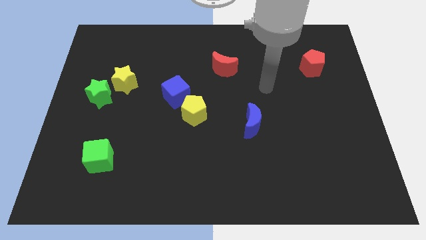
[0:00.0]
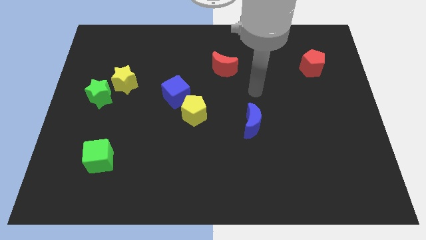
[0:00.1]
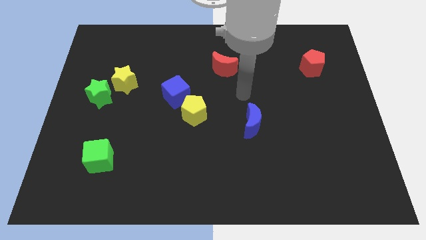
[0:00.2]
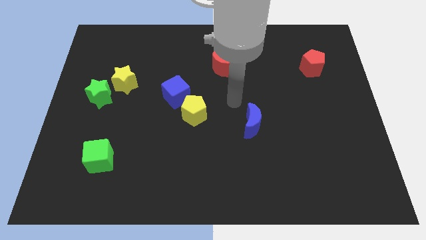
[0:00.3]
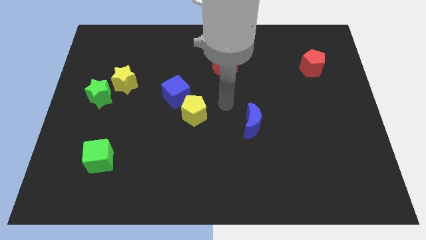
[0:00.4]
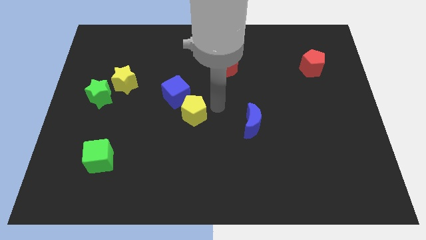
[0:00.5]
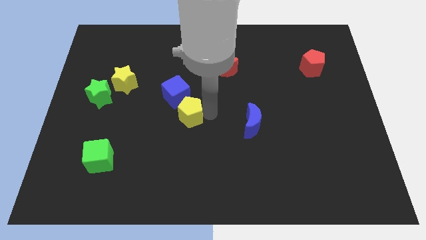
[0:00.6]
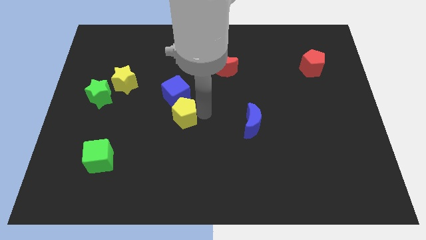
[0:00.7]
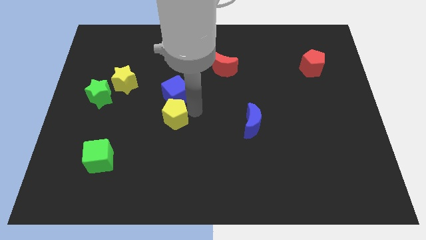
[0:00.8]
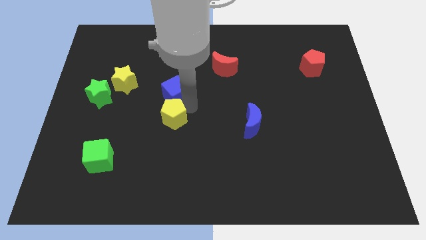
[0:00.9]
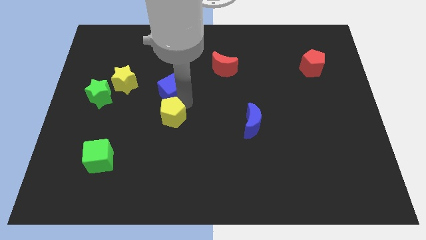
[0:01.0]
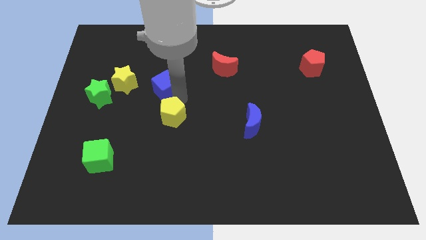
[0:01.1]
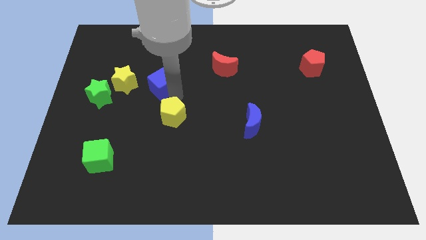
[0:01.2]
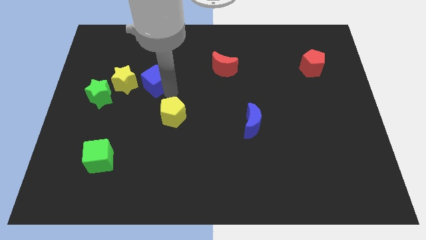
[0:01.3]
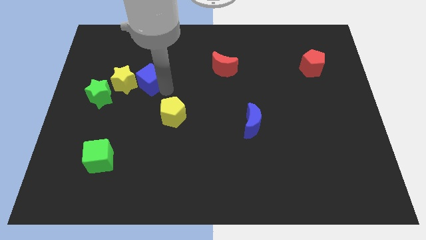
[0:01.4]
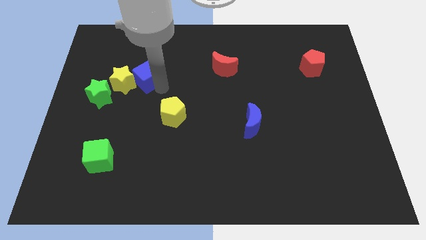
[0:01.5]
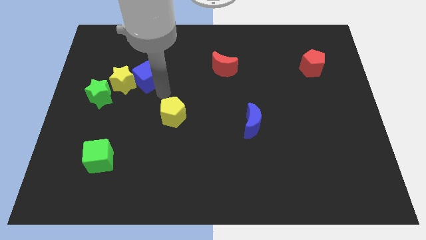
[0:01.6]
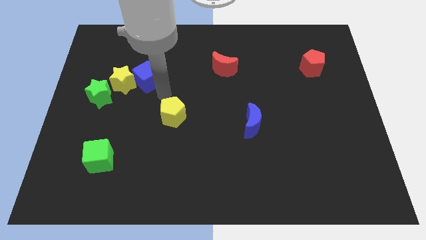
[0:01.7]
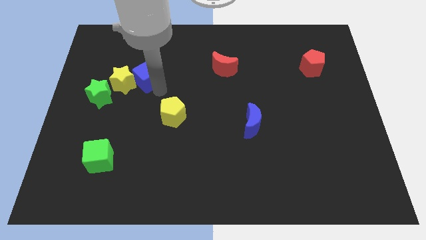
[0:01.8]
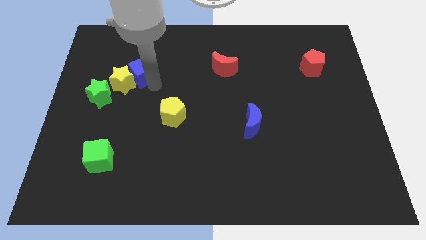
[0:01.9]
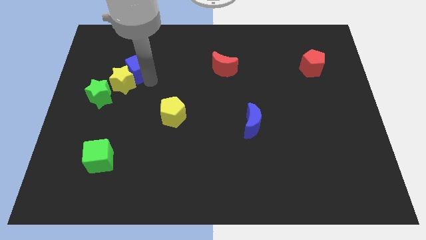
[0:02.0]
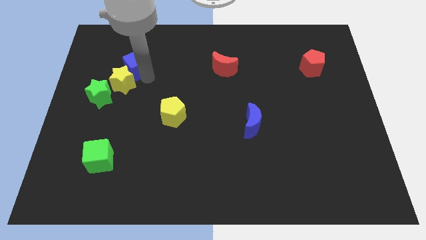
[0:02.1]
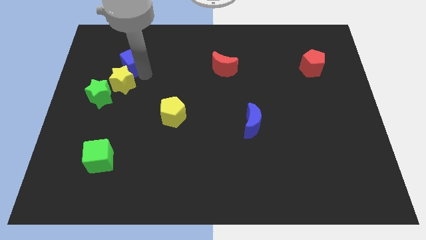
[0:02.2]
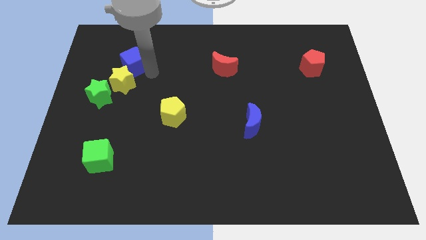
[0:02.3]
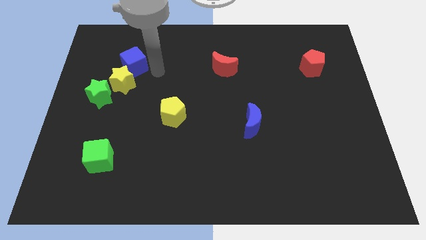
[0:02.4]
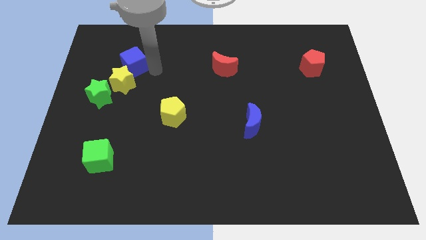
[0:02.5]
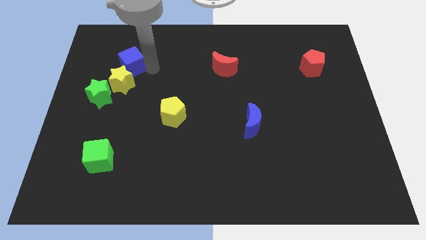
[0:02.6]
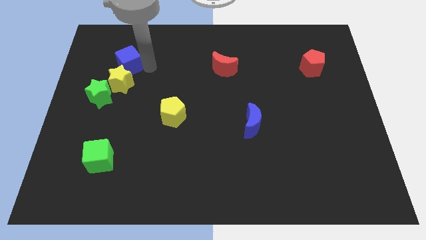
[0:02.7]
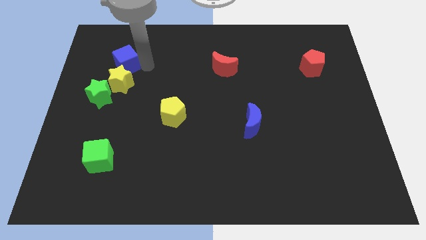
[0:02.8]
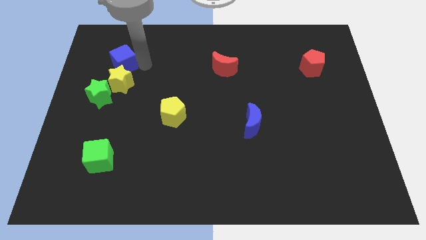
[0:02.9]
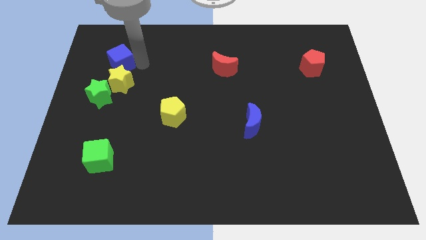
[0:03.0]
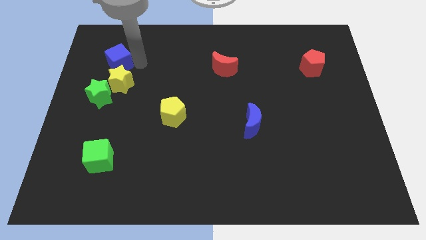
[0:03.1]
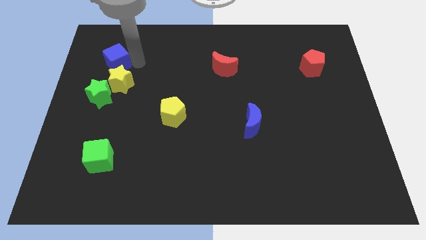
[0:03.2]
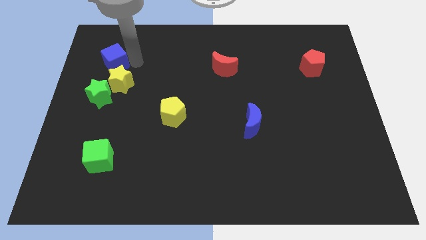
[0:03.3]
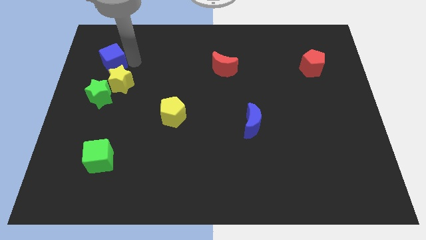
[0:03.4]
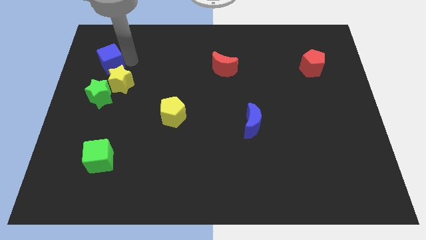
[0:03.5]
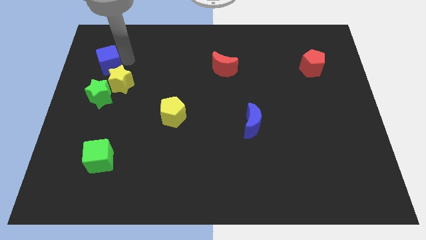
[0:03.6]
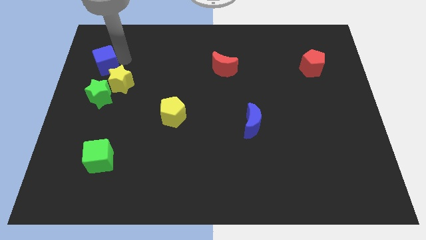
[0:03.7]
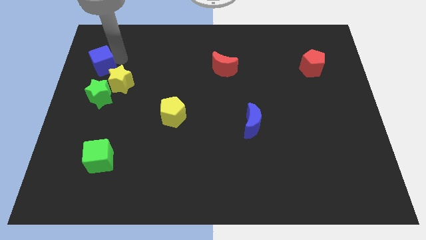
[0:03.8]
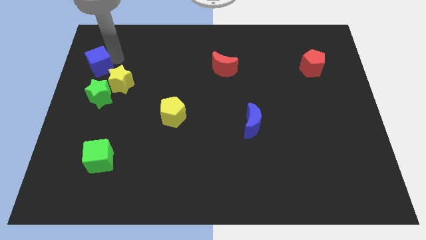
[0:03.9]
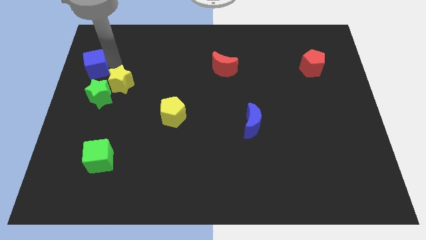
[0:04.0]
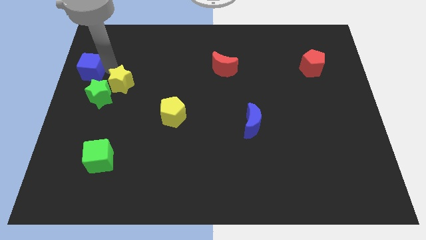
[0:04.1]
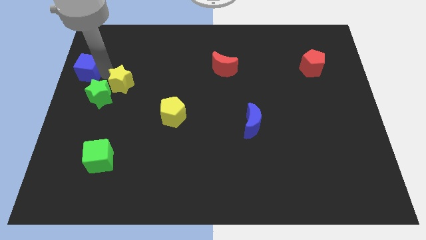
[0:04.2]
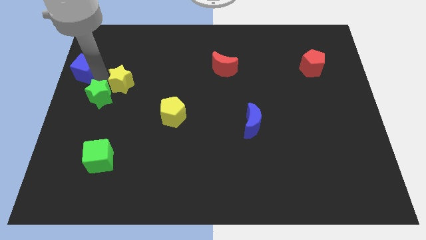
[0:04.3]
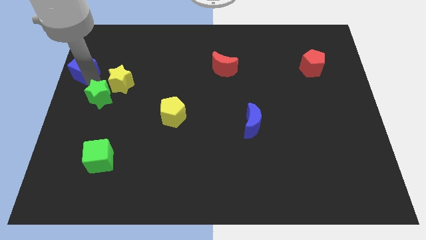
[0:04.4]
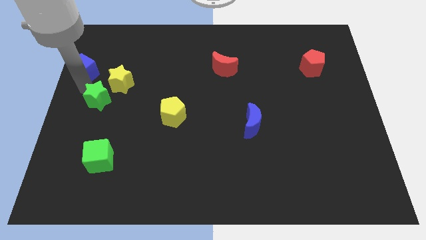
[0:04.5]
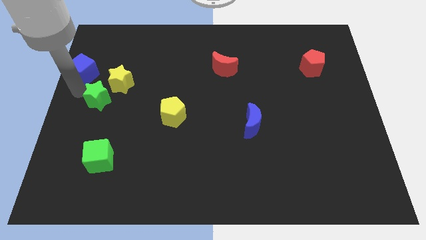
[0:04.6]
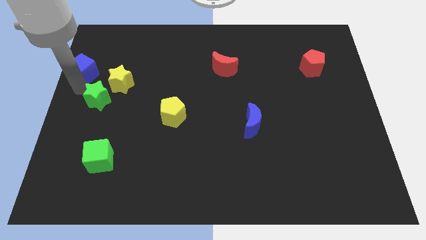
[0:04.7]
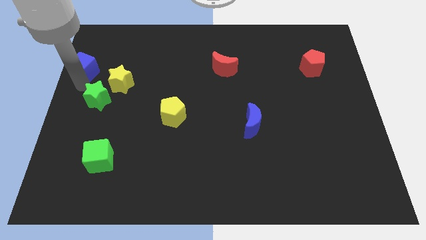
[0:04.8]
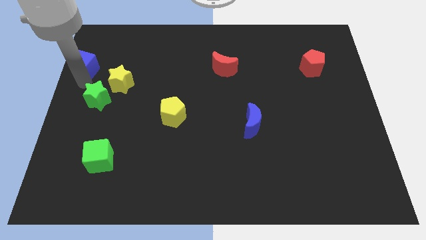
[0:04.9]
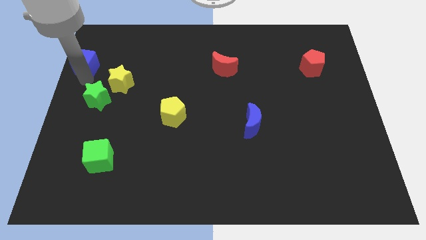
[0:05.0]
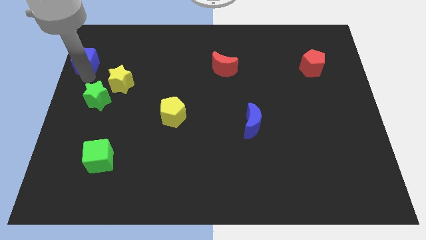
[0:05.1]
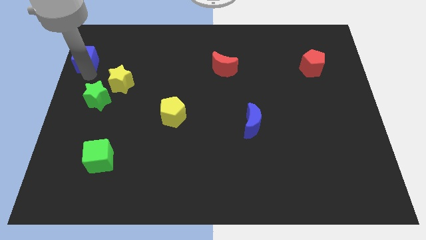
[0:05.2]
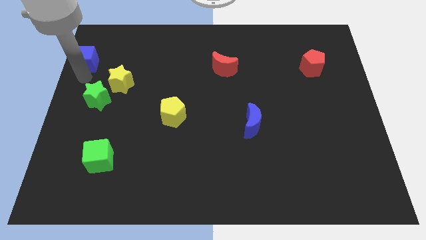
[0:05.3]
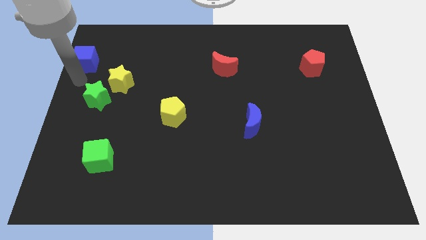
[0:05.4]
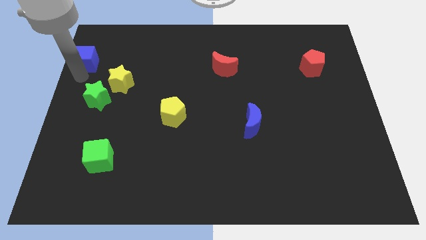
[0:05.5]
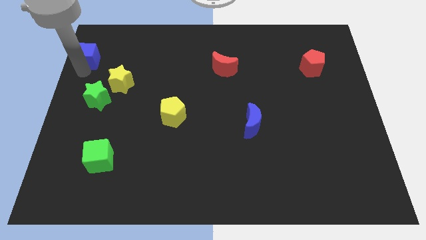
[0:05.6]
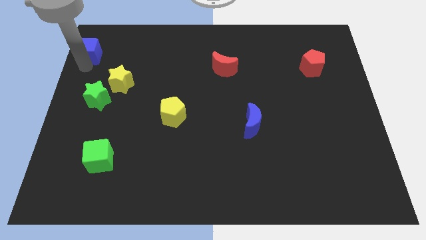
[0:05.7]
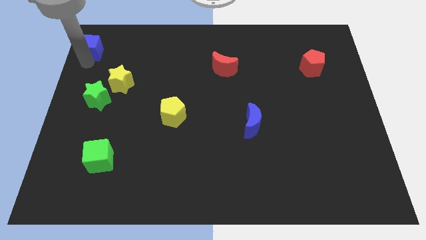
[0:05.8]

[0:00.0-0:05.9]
move the blue cube to the upper left corner

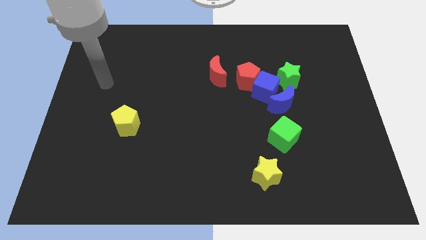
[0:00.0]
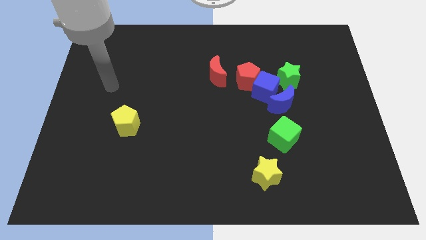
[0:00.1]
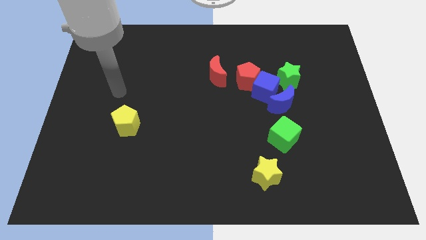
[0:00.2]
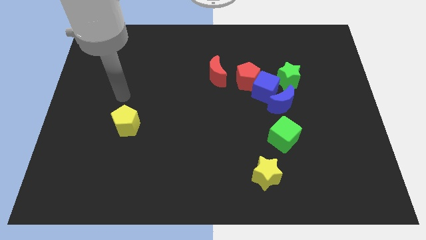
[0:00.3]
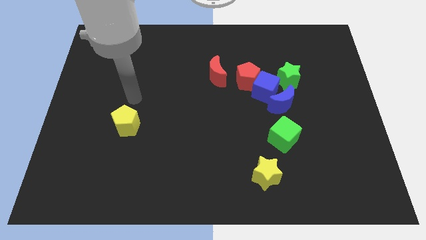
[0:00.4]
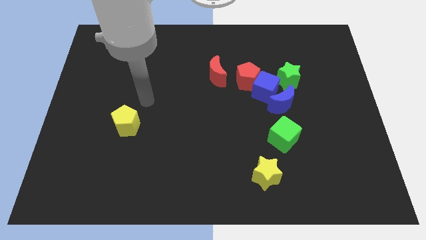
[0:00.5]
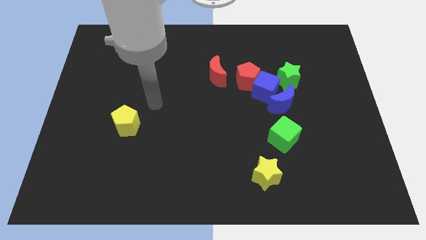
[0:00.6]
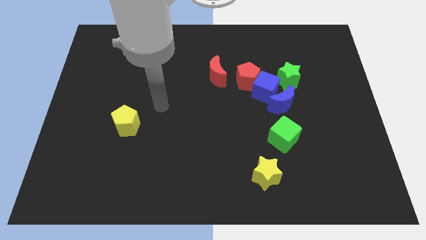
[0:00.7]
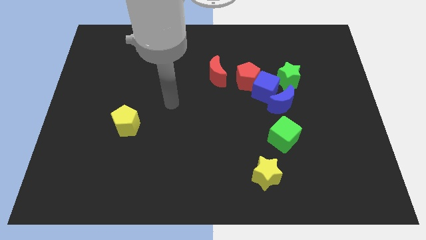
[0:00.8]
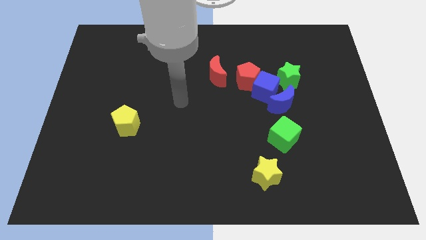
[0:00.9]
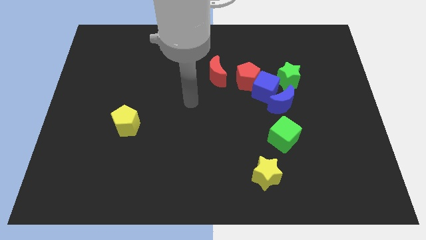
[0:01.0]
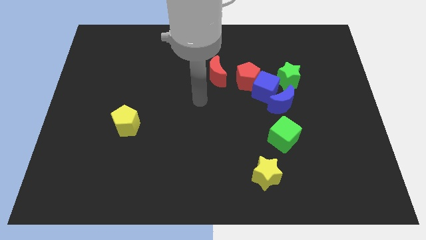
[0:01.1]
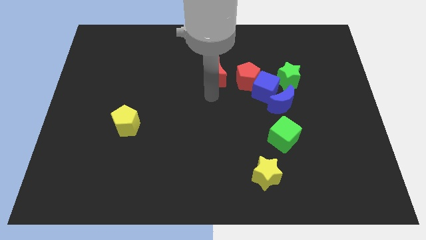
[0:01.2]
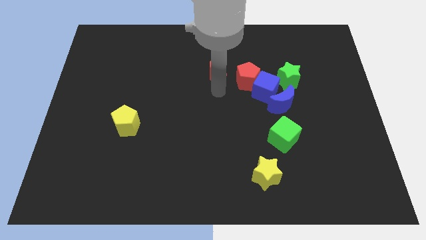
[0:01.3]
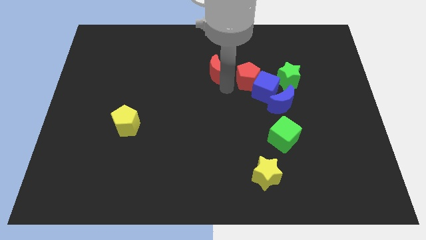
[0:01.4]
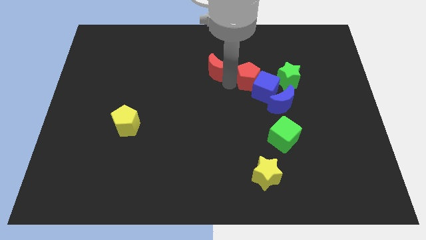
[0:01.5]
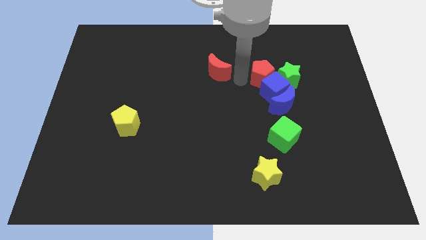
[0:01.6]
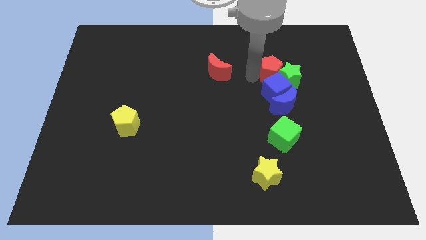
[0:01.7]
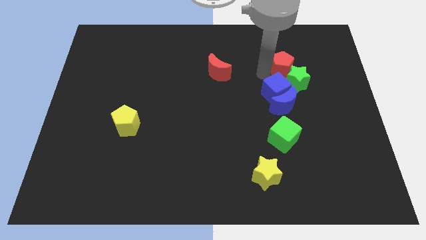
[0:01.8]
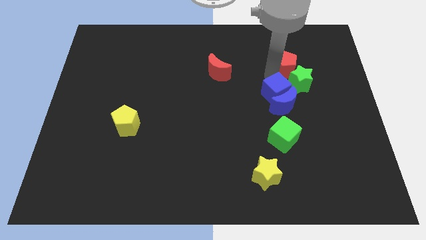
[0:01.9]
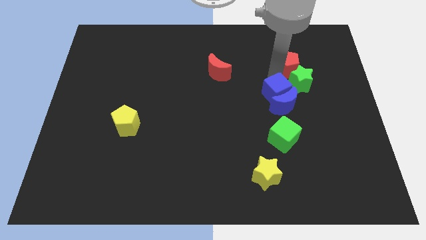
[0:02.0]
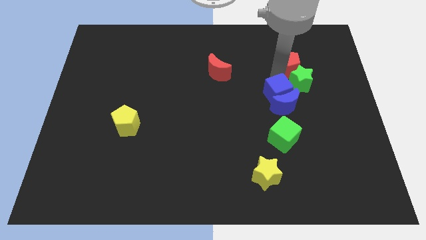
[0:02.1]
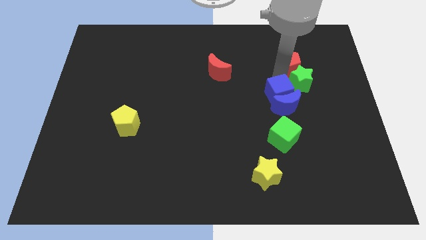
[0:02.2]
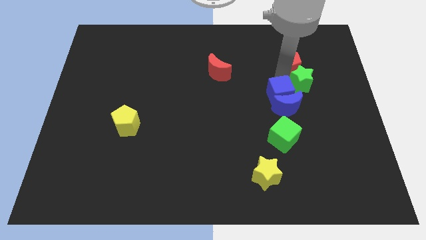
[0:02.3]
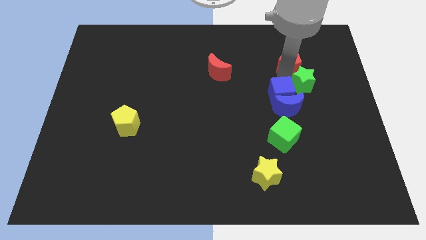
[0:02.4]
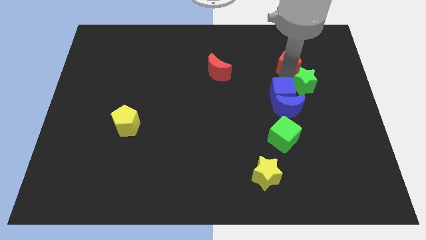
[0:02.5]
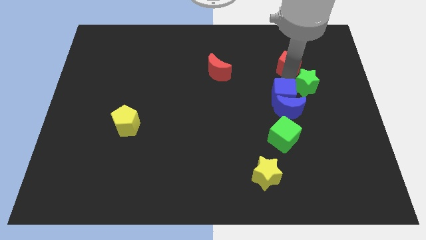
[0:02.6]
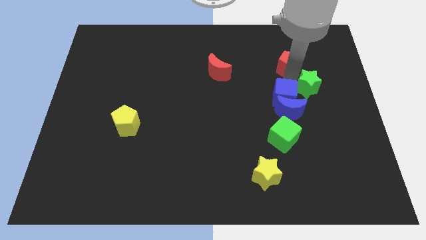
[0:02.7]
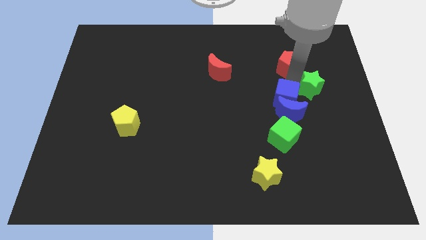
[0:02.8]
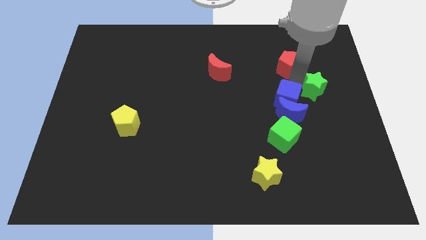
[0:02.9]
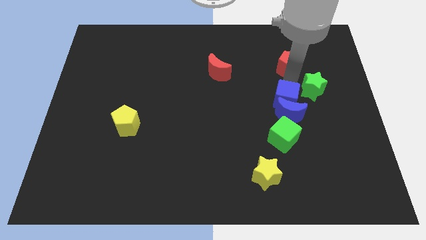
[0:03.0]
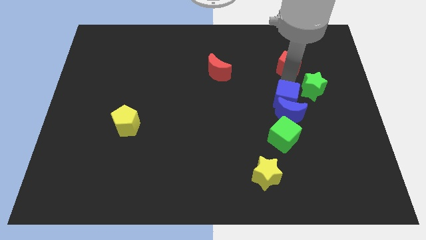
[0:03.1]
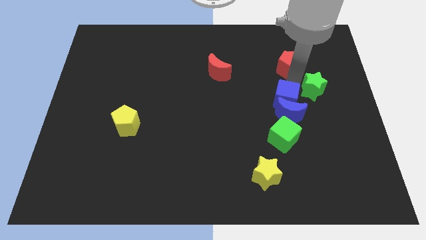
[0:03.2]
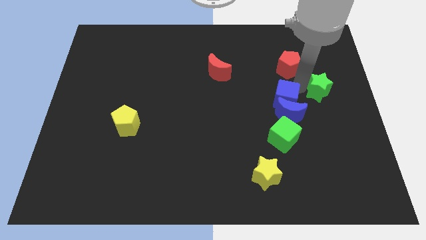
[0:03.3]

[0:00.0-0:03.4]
move the green star to the center right
